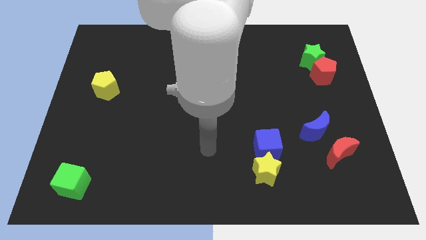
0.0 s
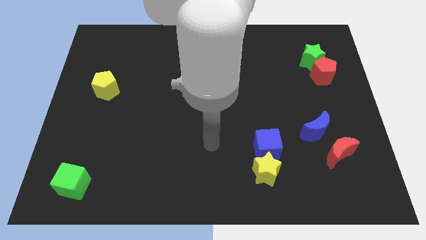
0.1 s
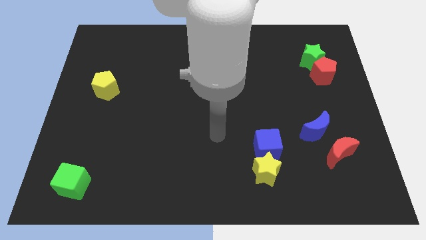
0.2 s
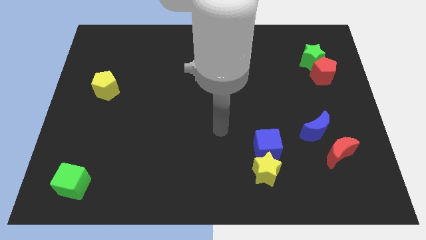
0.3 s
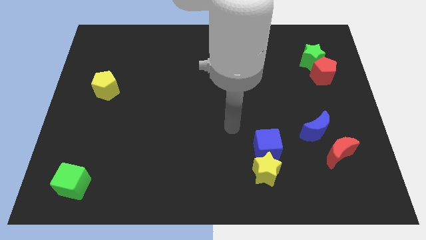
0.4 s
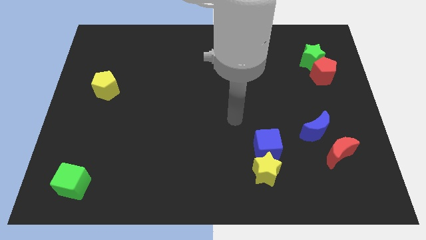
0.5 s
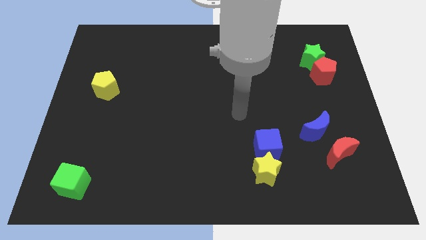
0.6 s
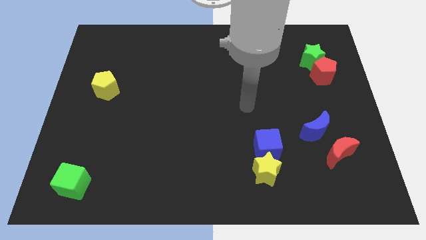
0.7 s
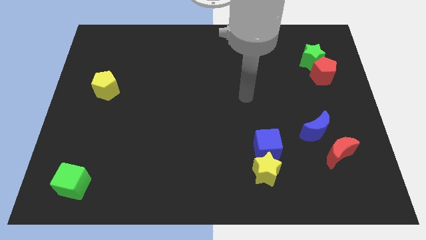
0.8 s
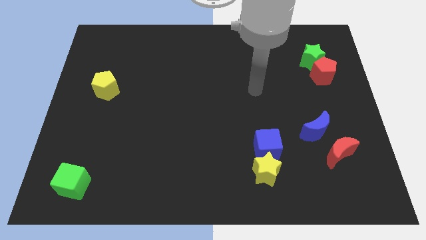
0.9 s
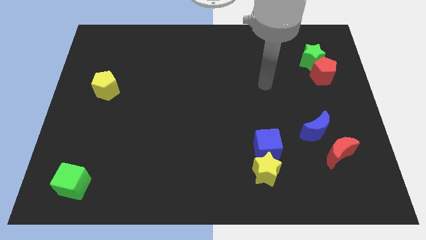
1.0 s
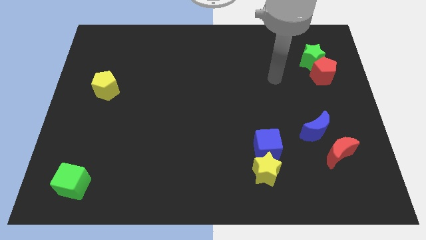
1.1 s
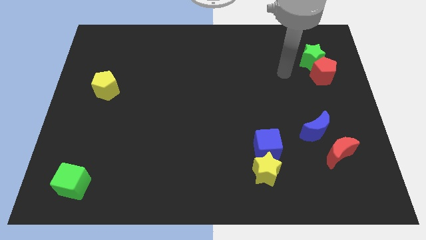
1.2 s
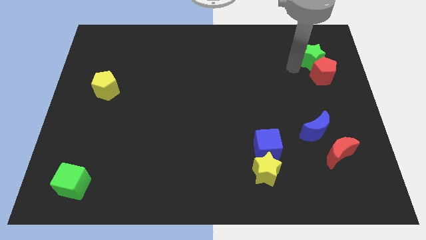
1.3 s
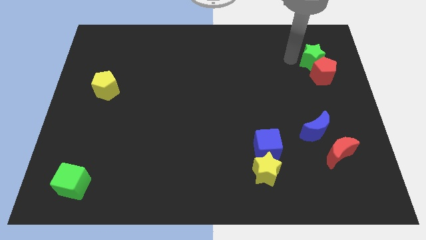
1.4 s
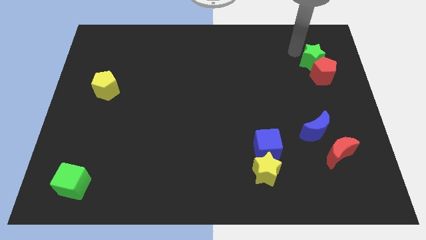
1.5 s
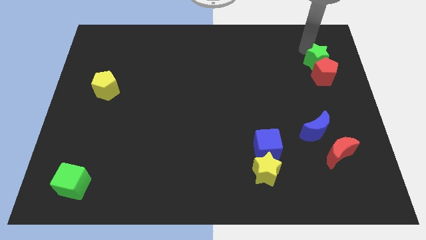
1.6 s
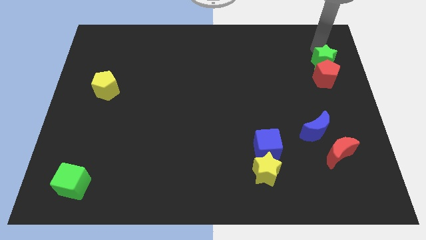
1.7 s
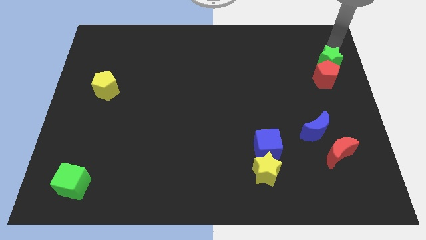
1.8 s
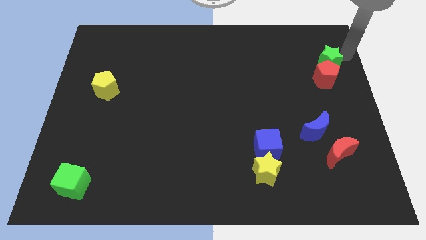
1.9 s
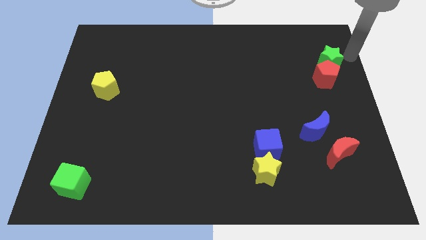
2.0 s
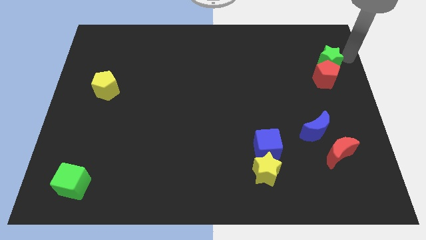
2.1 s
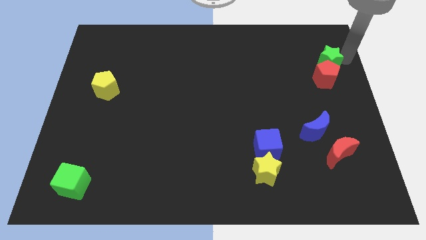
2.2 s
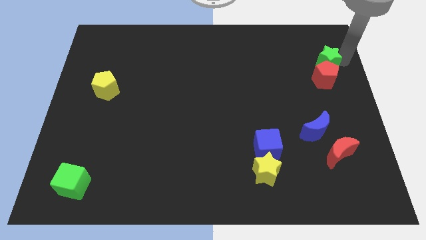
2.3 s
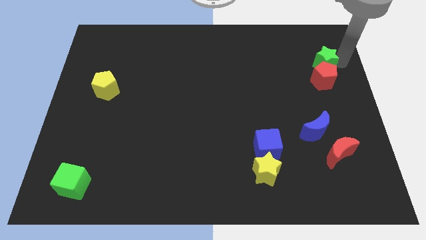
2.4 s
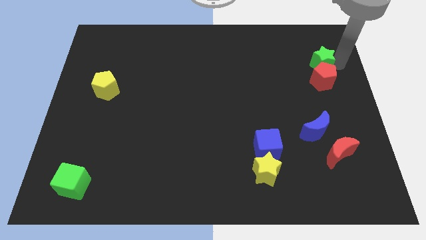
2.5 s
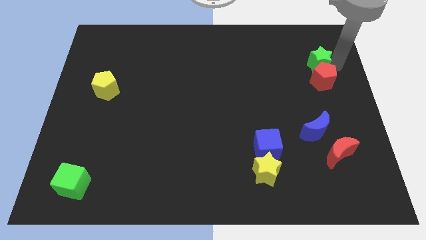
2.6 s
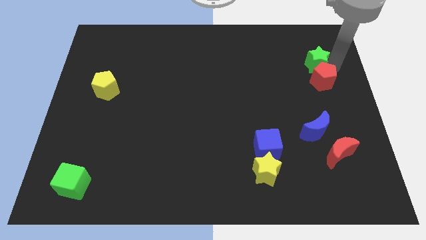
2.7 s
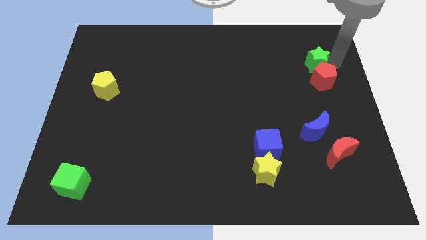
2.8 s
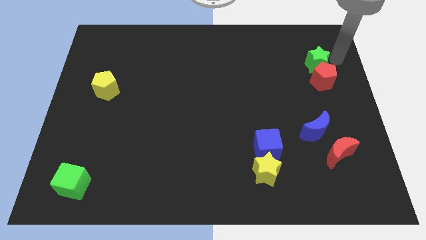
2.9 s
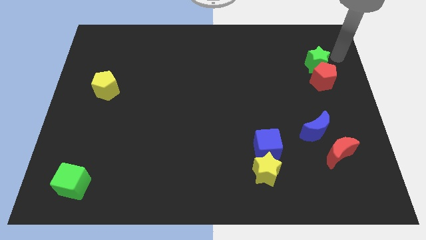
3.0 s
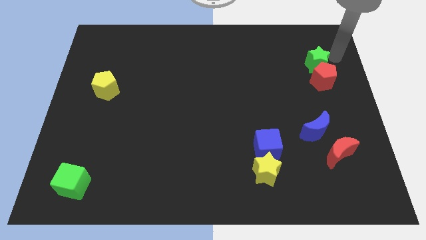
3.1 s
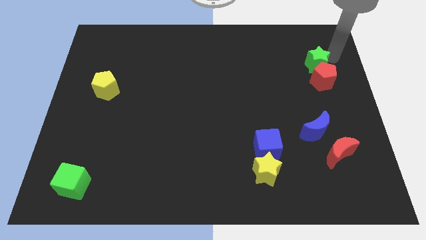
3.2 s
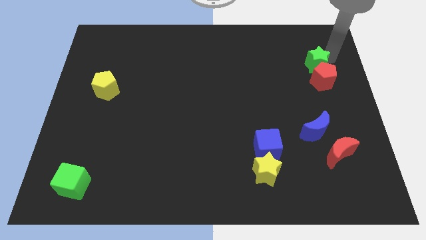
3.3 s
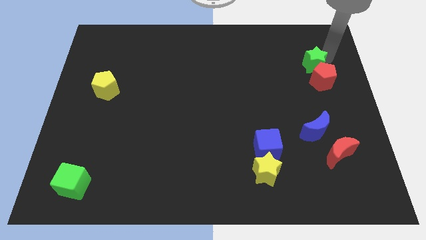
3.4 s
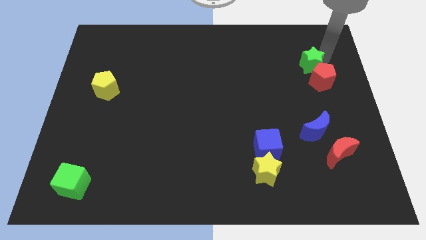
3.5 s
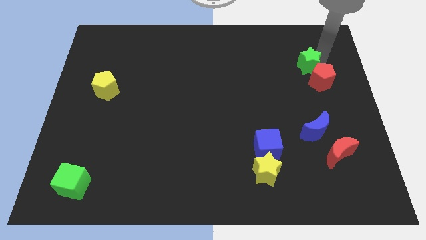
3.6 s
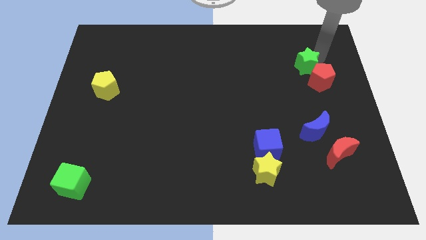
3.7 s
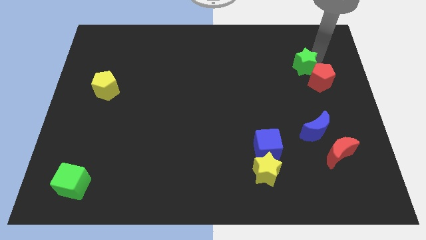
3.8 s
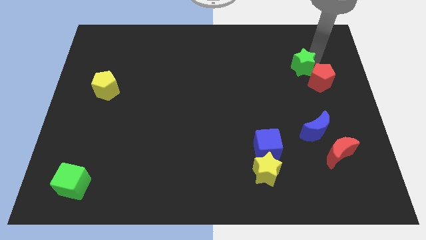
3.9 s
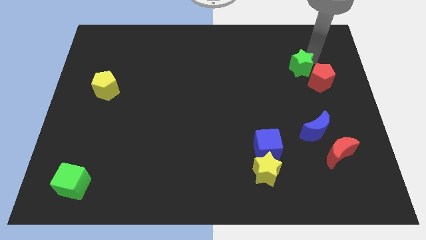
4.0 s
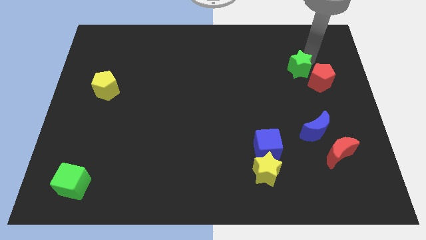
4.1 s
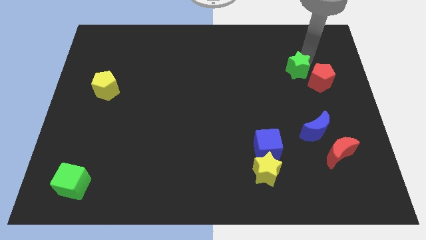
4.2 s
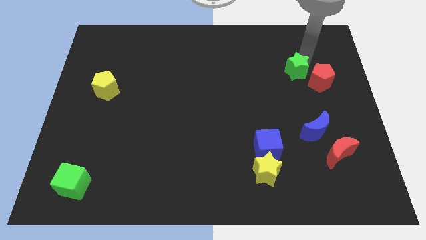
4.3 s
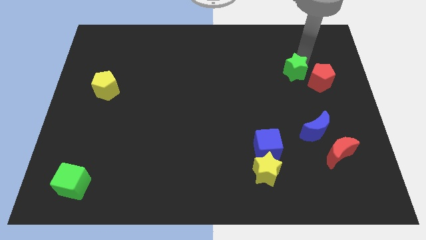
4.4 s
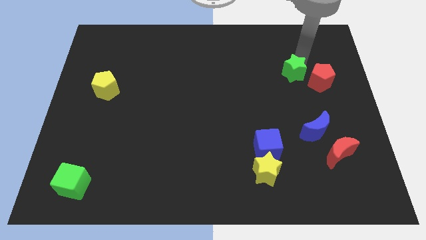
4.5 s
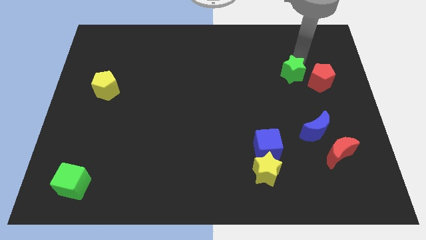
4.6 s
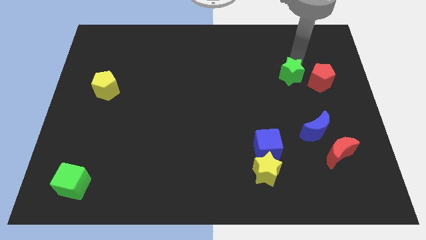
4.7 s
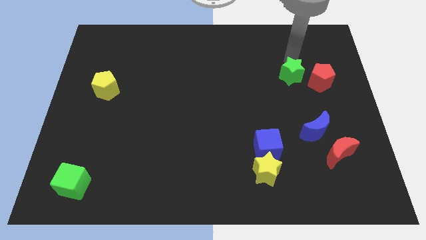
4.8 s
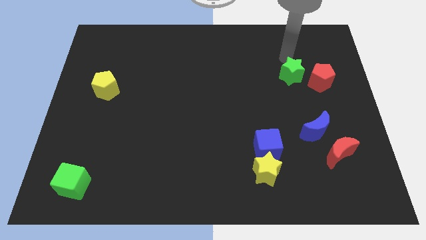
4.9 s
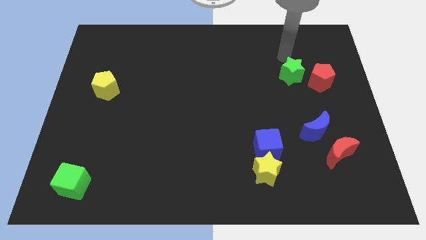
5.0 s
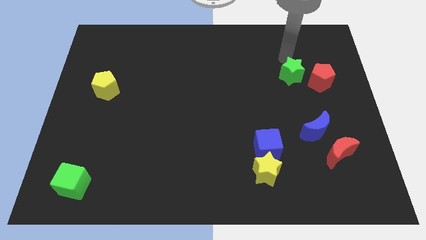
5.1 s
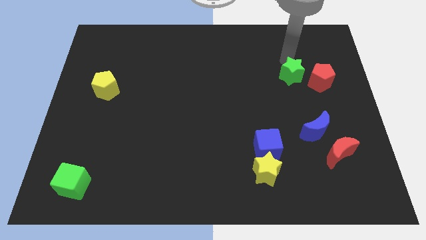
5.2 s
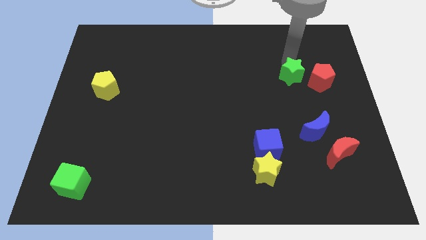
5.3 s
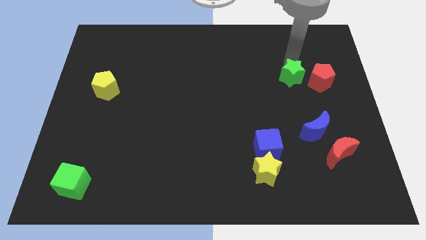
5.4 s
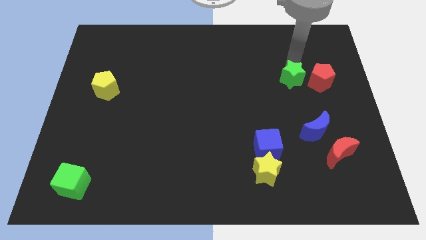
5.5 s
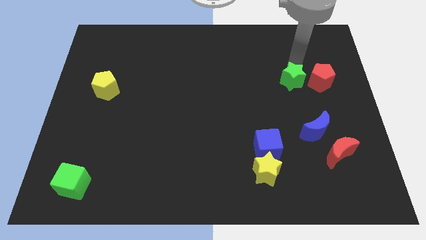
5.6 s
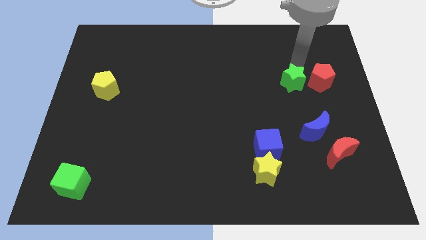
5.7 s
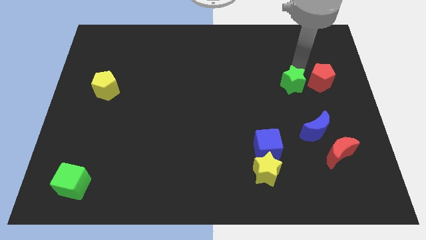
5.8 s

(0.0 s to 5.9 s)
slide the green star downwards a little bit

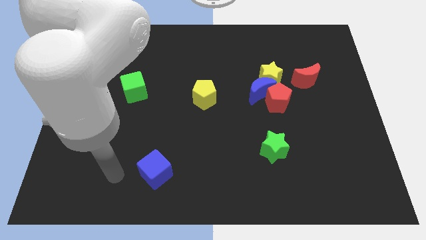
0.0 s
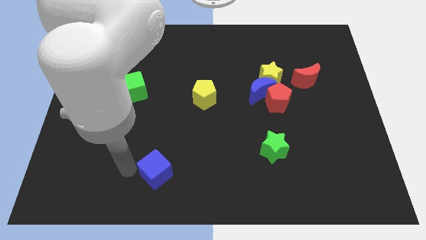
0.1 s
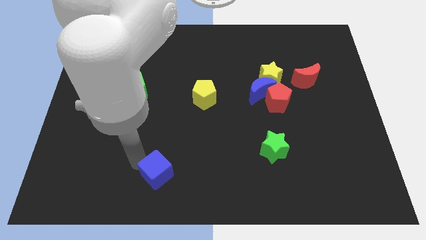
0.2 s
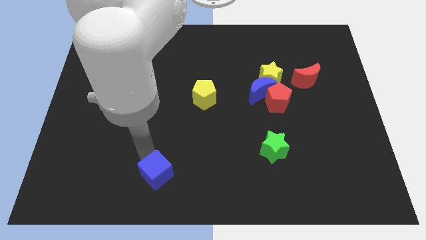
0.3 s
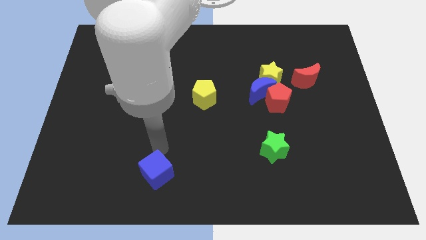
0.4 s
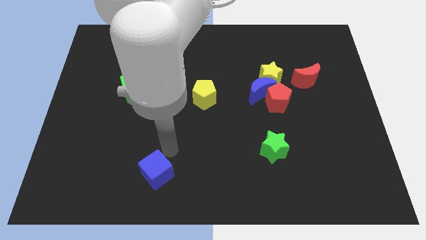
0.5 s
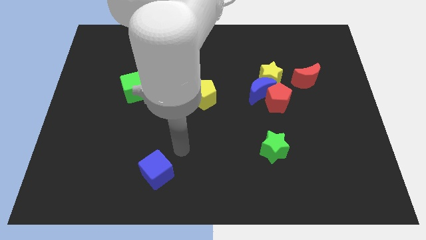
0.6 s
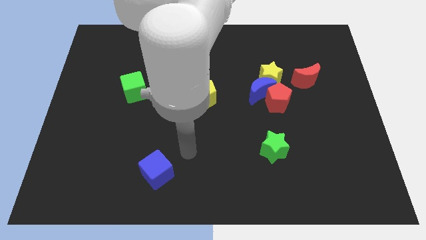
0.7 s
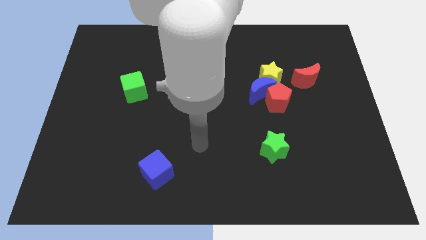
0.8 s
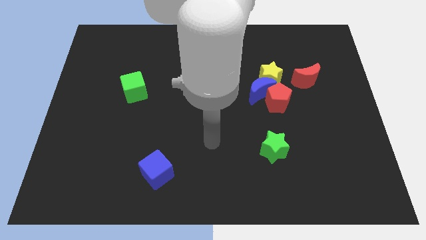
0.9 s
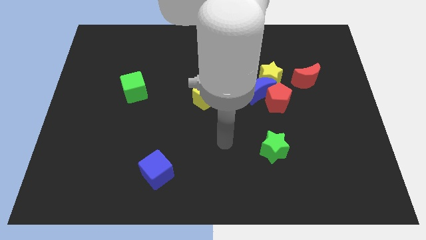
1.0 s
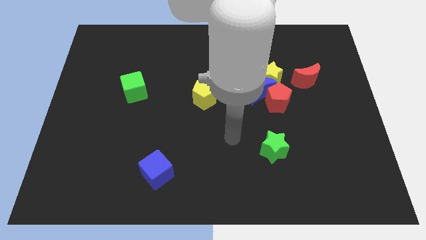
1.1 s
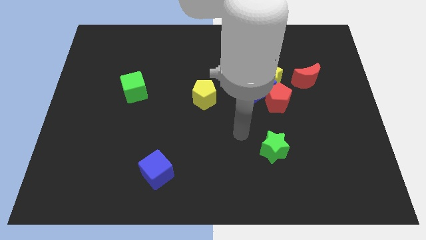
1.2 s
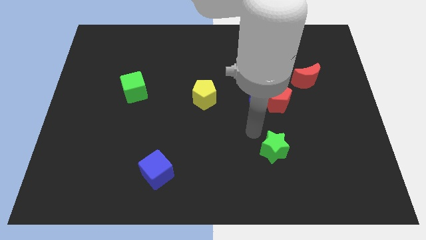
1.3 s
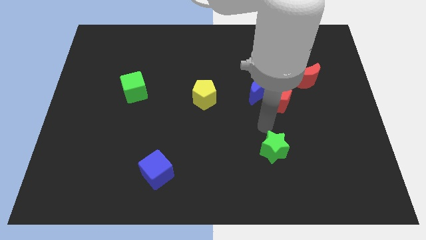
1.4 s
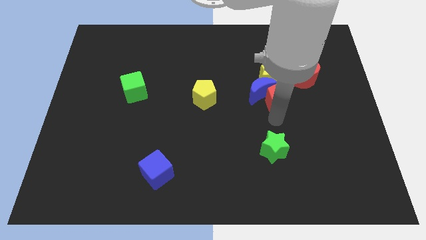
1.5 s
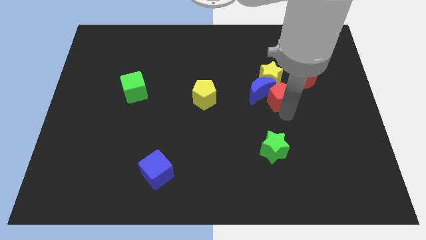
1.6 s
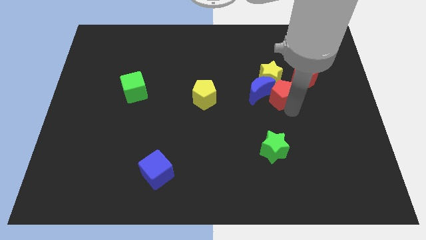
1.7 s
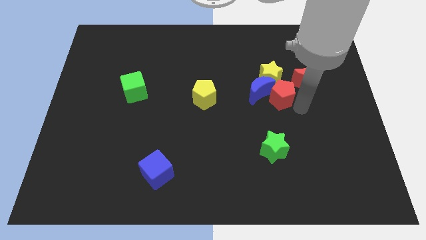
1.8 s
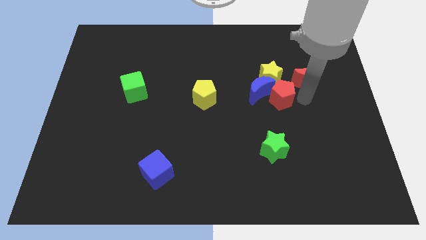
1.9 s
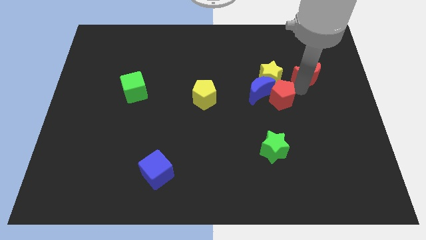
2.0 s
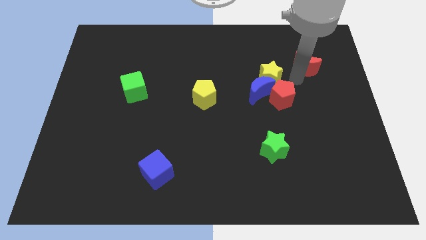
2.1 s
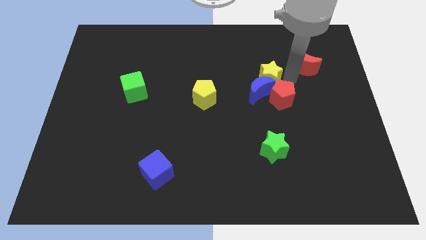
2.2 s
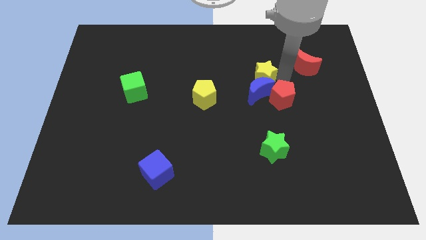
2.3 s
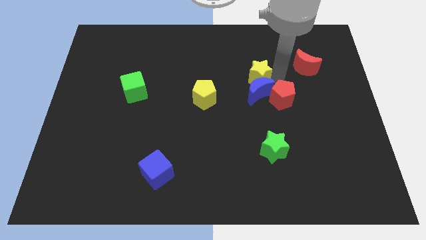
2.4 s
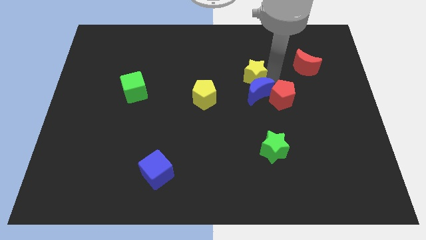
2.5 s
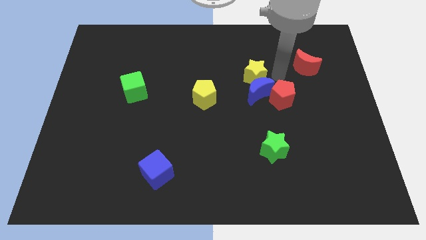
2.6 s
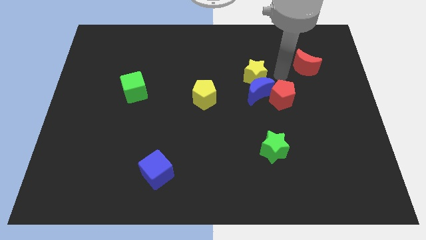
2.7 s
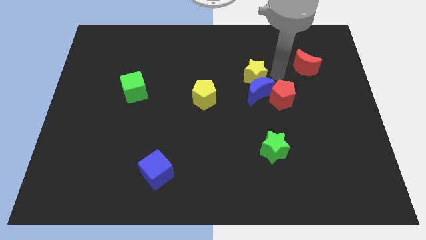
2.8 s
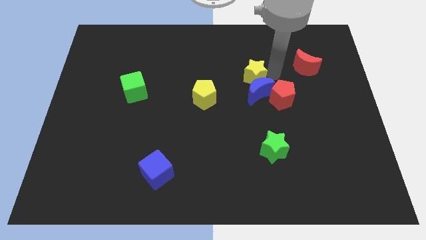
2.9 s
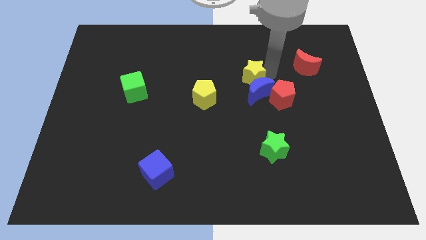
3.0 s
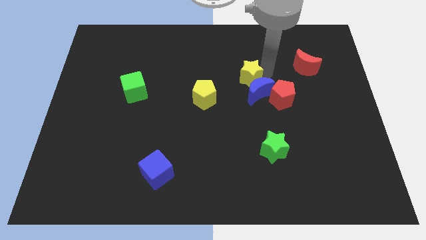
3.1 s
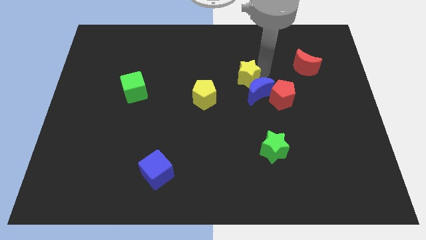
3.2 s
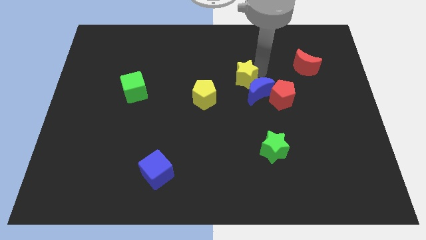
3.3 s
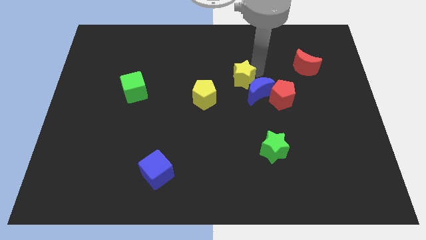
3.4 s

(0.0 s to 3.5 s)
slightly move the yellow star left
